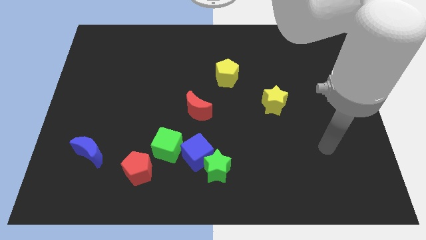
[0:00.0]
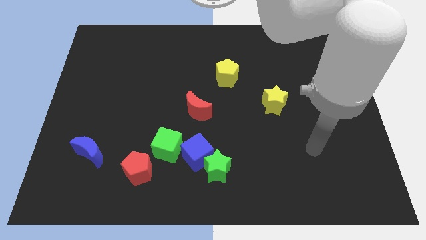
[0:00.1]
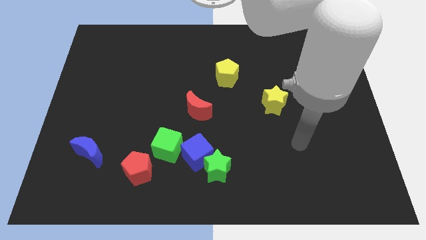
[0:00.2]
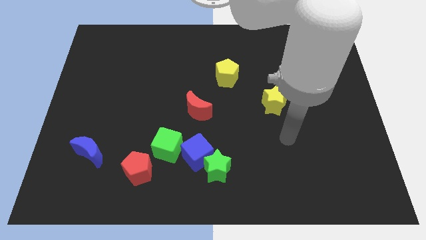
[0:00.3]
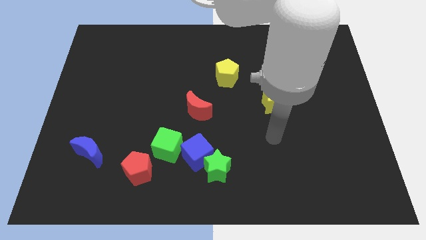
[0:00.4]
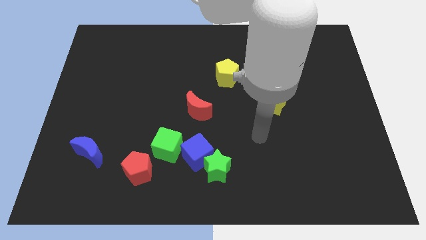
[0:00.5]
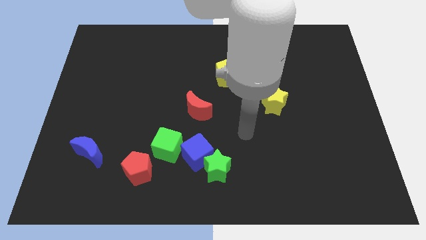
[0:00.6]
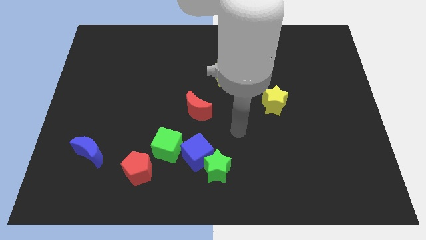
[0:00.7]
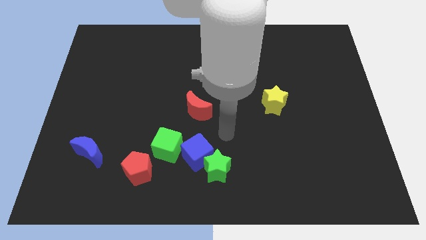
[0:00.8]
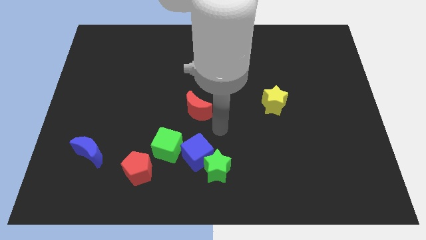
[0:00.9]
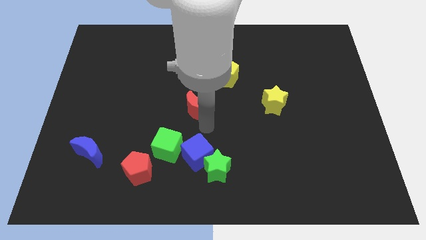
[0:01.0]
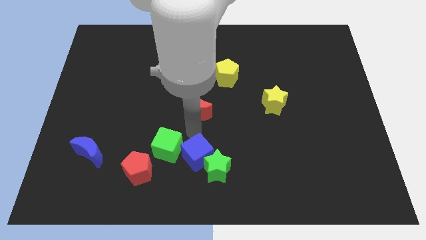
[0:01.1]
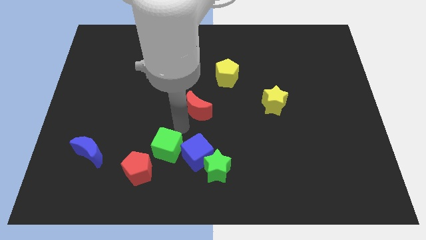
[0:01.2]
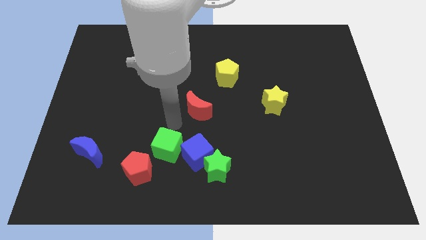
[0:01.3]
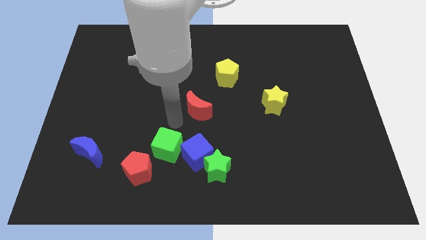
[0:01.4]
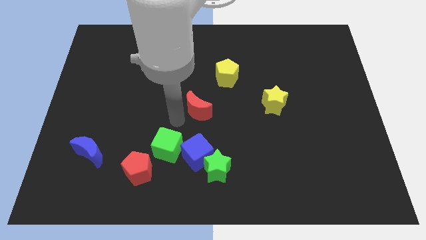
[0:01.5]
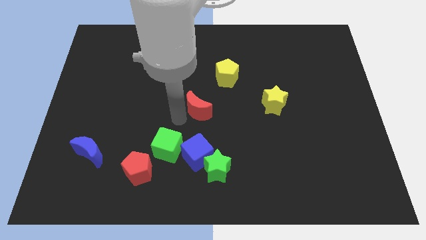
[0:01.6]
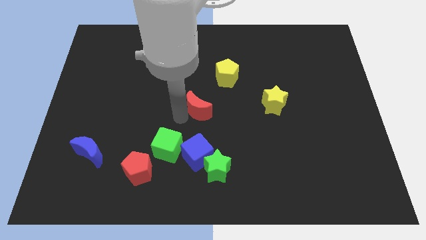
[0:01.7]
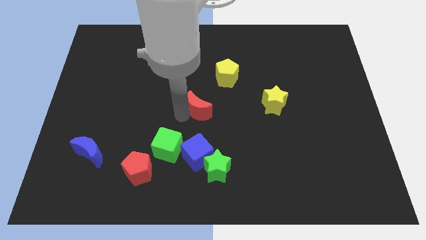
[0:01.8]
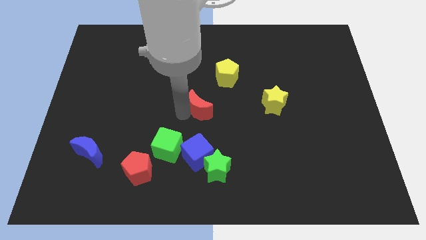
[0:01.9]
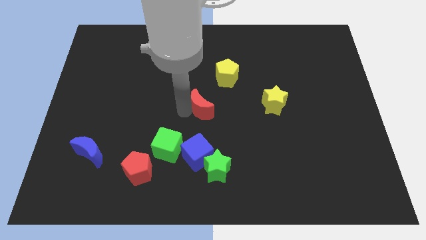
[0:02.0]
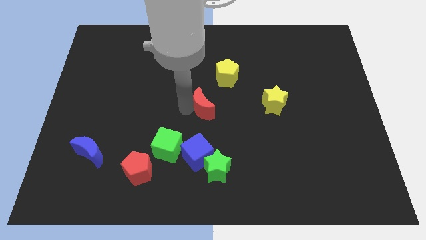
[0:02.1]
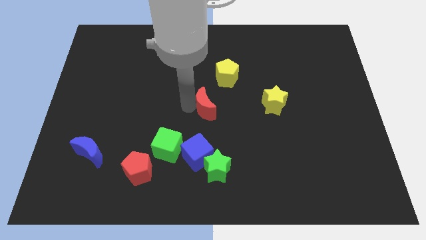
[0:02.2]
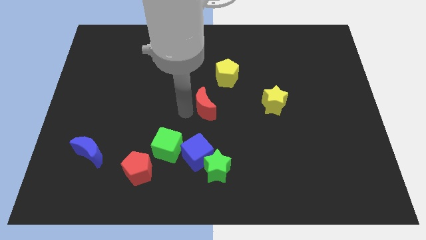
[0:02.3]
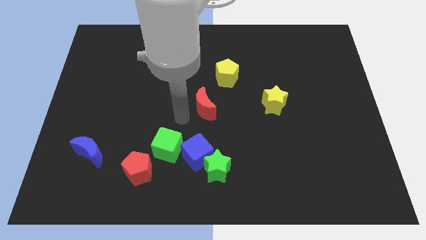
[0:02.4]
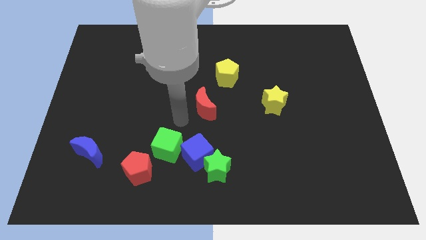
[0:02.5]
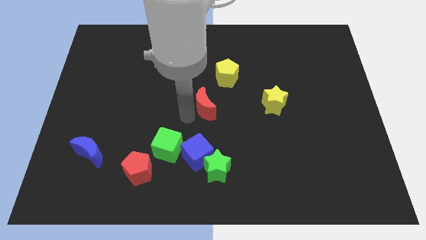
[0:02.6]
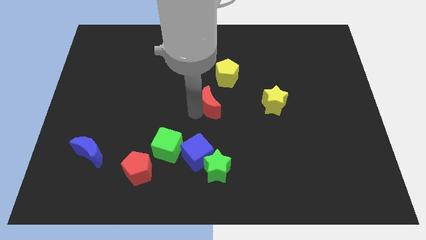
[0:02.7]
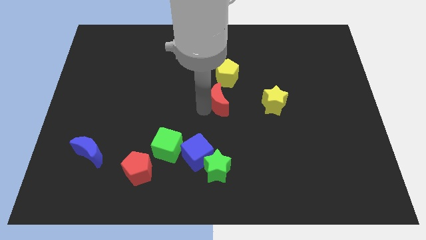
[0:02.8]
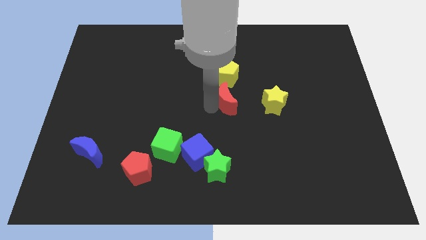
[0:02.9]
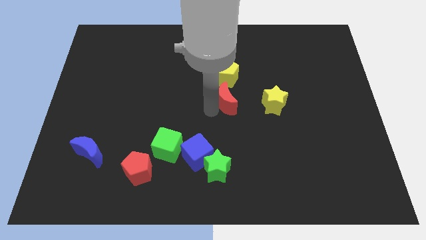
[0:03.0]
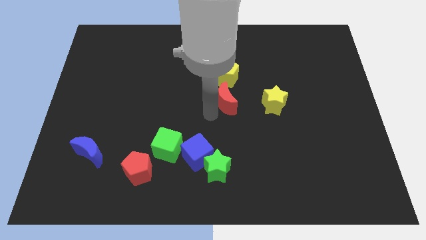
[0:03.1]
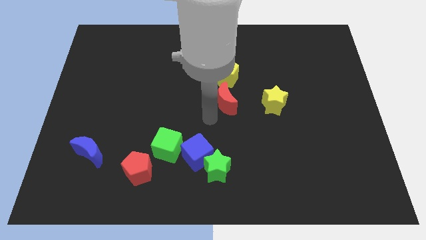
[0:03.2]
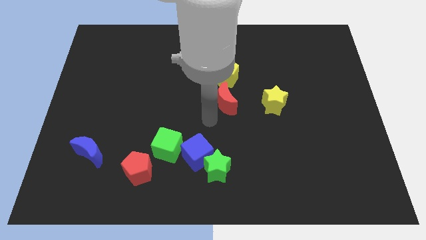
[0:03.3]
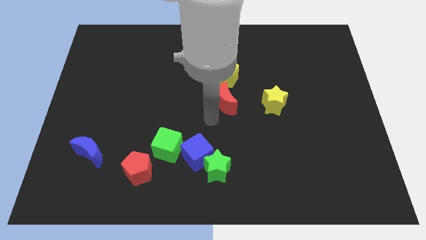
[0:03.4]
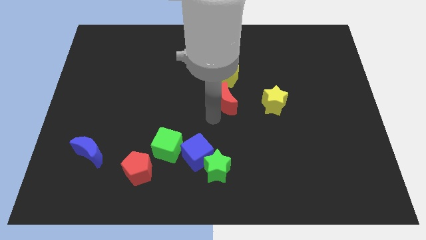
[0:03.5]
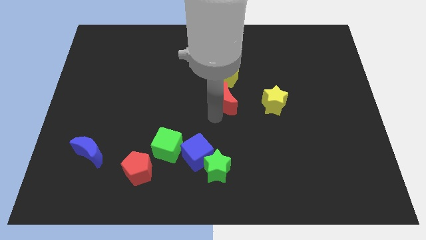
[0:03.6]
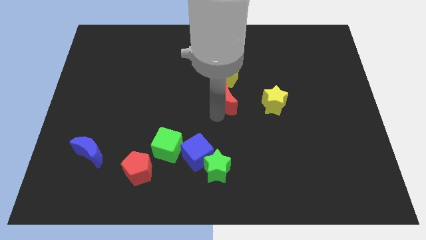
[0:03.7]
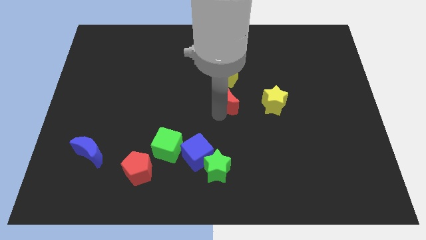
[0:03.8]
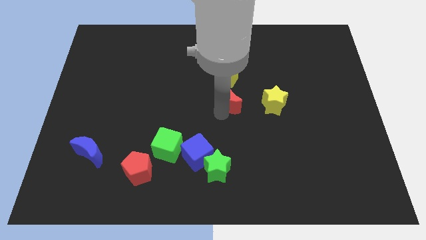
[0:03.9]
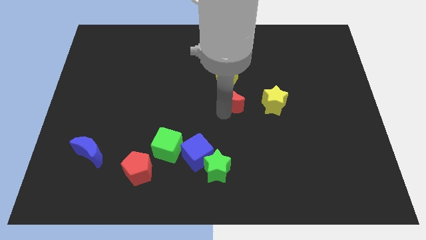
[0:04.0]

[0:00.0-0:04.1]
push the red moon upwards and then to the right a little bit

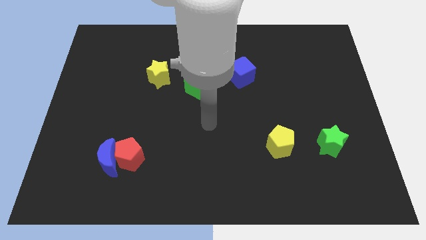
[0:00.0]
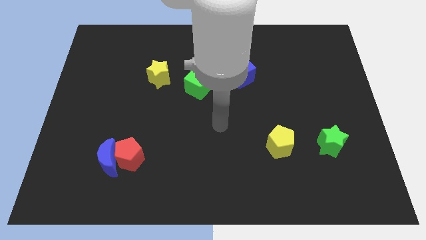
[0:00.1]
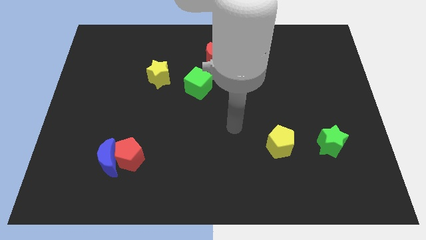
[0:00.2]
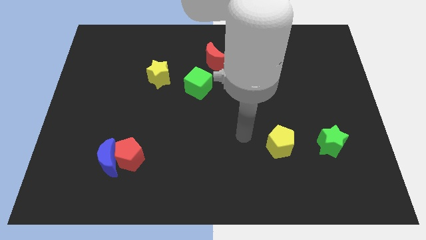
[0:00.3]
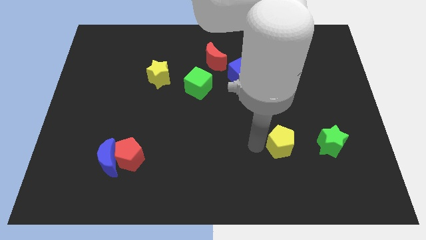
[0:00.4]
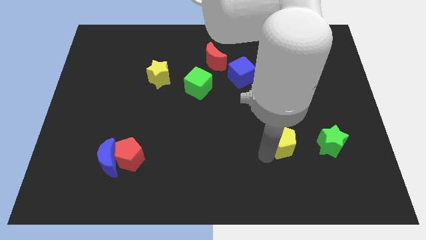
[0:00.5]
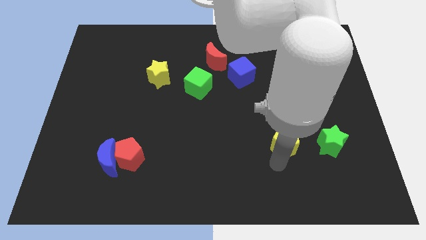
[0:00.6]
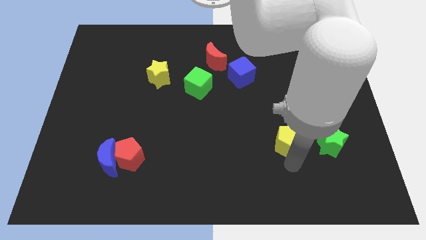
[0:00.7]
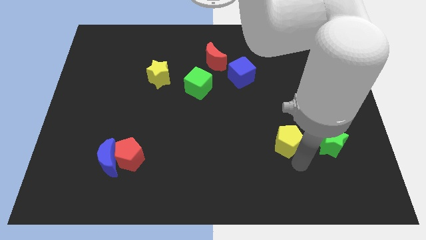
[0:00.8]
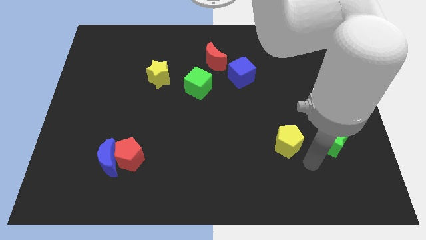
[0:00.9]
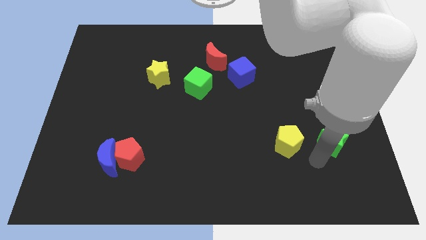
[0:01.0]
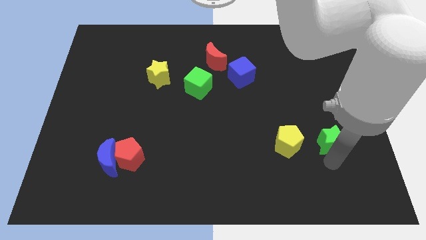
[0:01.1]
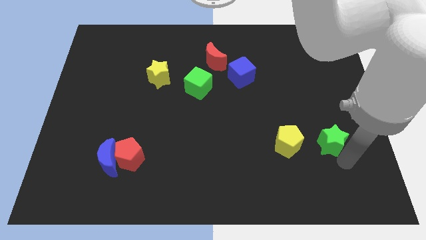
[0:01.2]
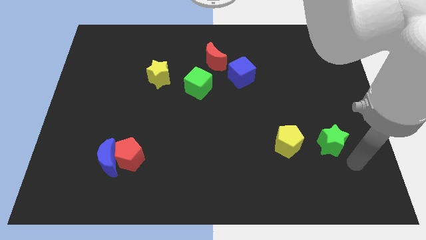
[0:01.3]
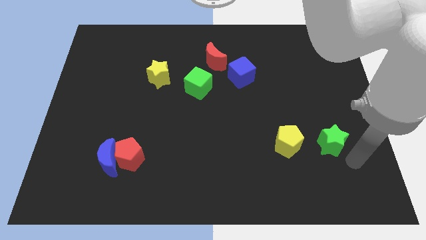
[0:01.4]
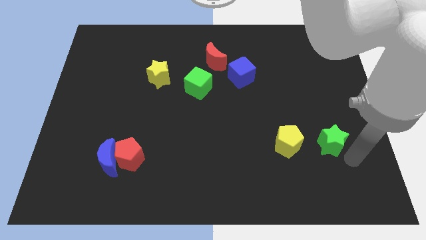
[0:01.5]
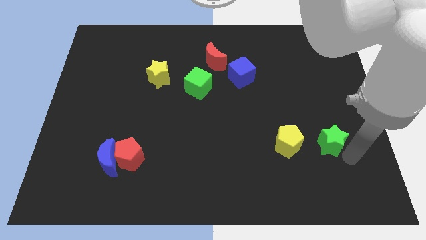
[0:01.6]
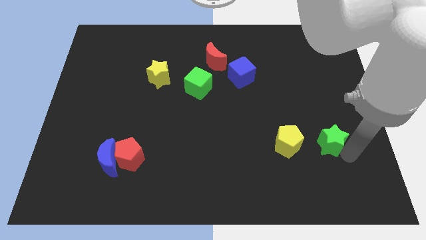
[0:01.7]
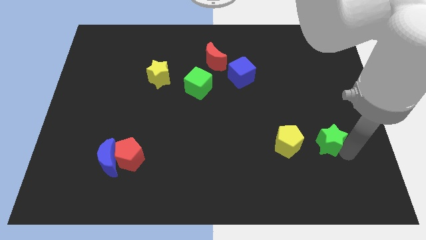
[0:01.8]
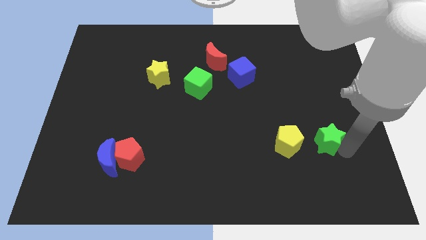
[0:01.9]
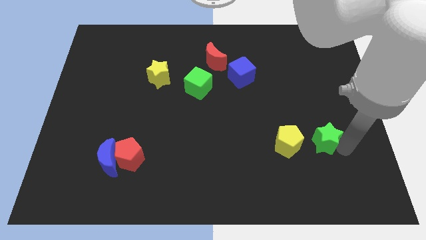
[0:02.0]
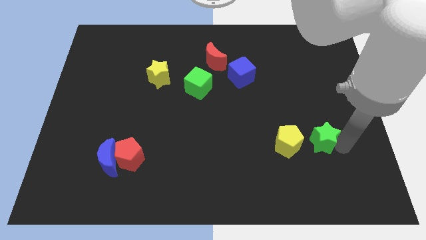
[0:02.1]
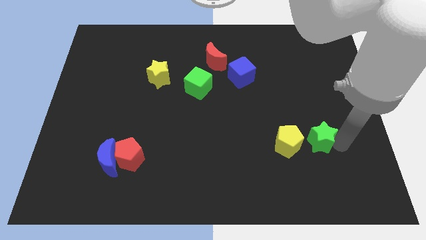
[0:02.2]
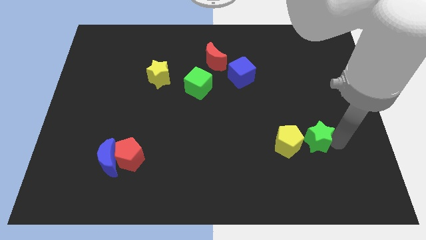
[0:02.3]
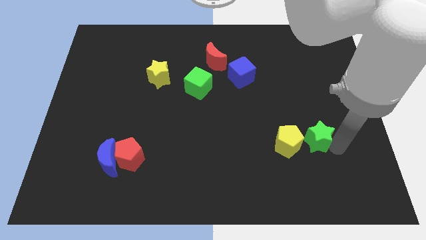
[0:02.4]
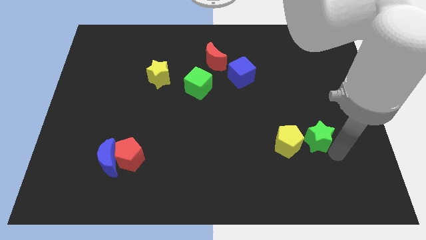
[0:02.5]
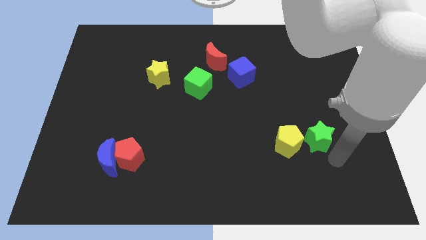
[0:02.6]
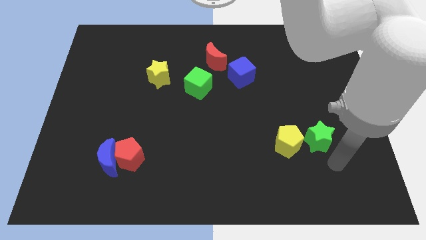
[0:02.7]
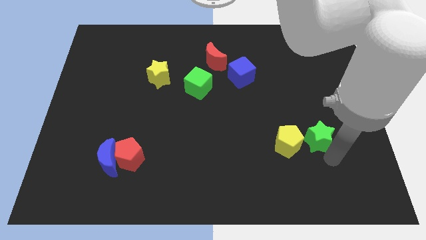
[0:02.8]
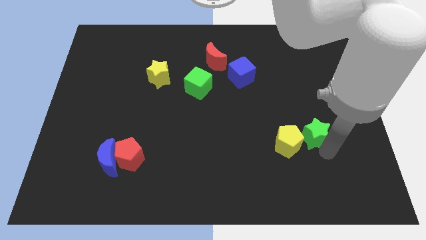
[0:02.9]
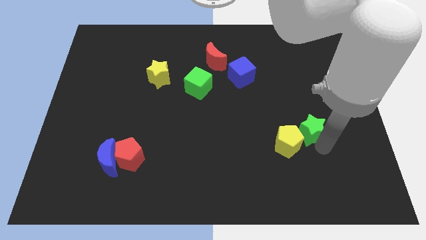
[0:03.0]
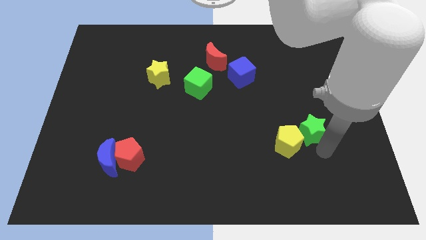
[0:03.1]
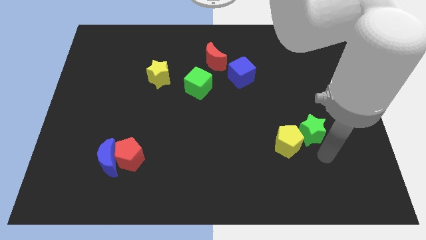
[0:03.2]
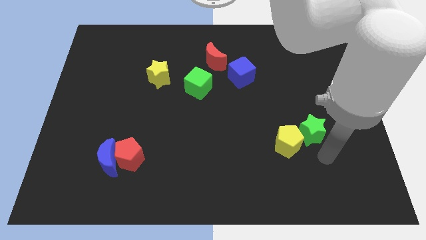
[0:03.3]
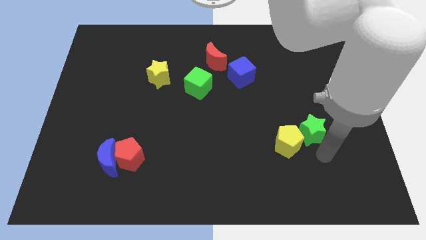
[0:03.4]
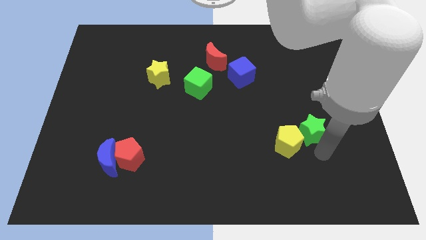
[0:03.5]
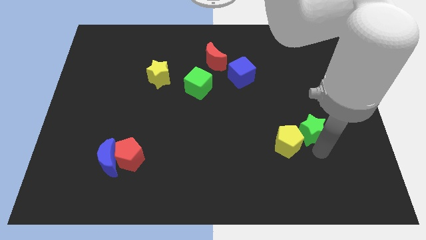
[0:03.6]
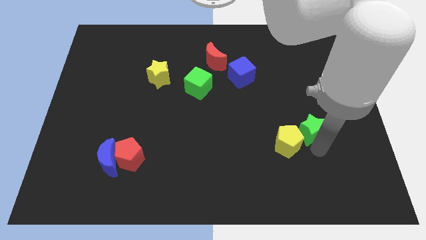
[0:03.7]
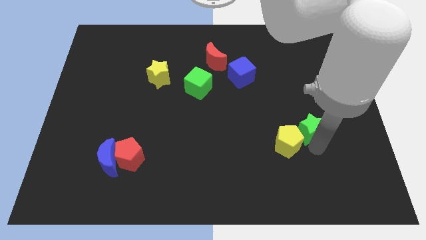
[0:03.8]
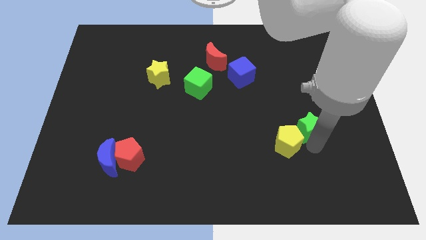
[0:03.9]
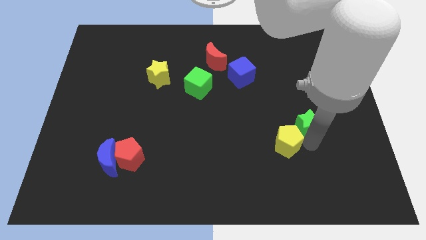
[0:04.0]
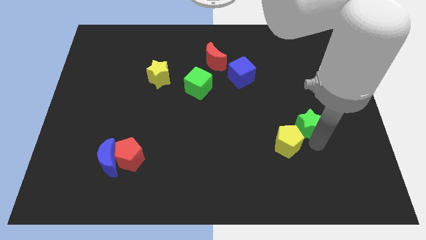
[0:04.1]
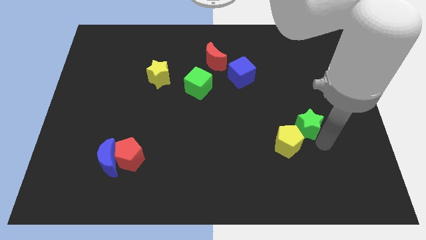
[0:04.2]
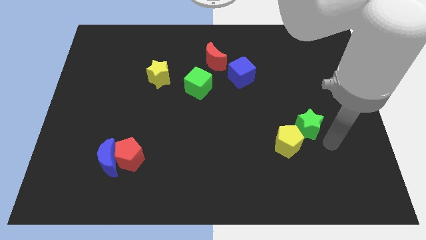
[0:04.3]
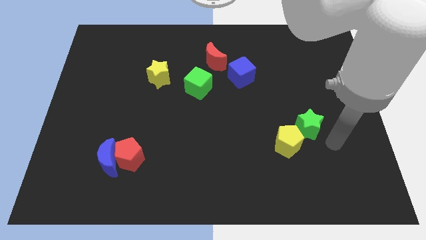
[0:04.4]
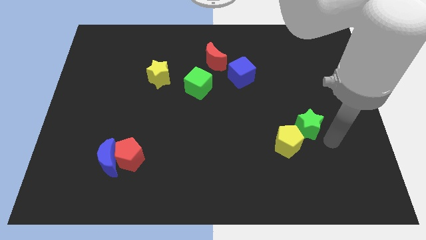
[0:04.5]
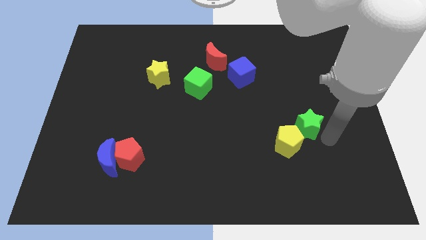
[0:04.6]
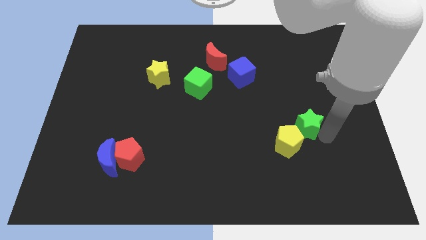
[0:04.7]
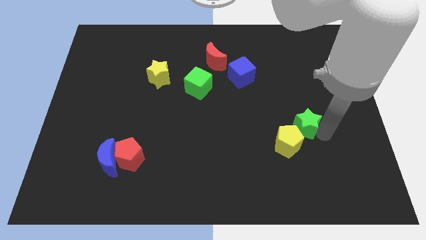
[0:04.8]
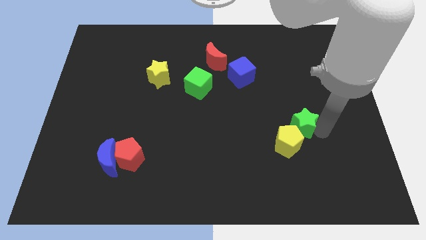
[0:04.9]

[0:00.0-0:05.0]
move the green star slightly diagonally up and to the left
